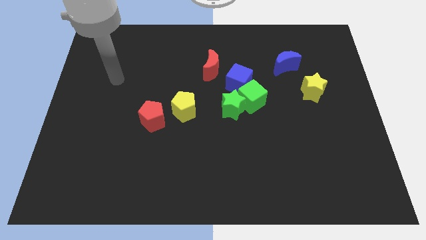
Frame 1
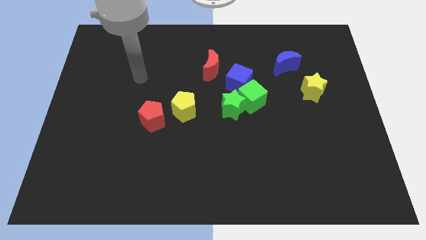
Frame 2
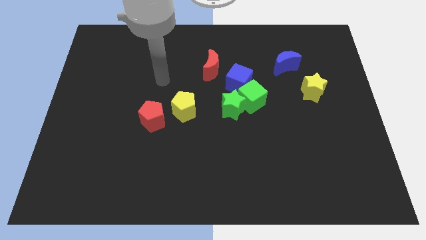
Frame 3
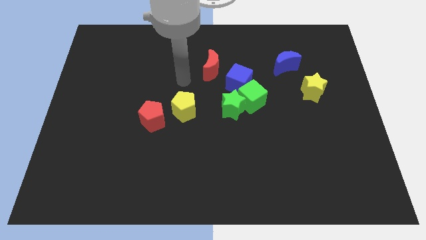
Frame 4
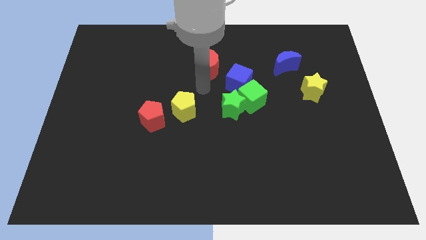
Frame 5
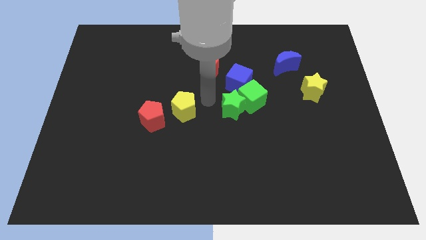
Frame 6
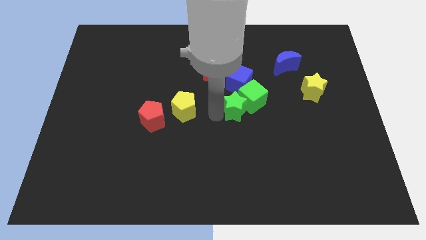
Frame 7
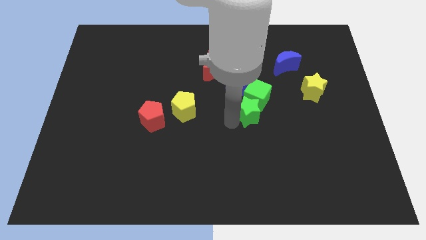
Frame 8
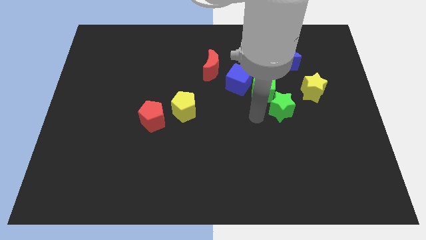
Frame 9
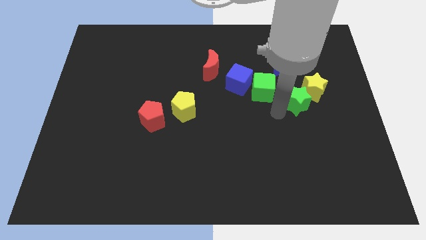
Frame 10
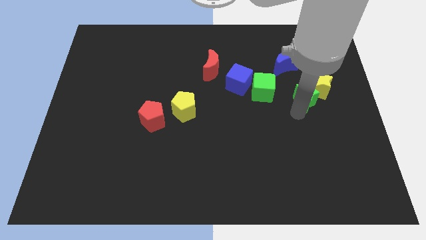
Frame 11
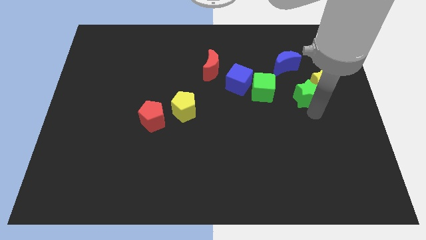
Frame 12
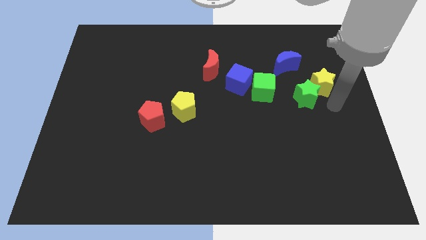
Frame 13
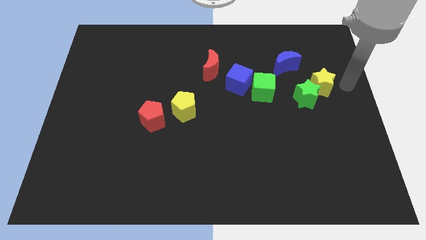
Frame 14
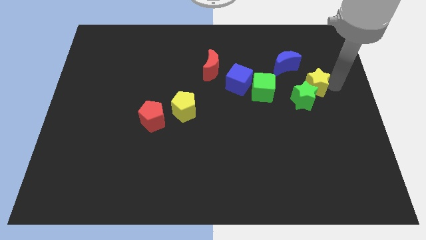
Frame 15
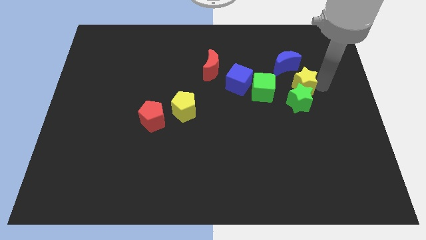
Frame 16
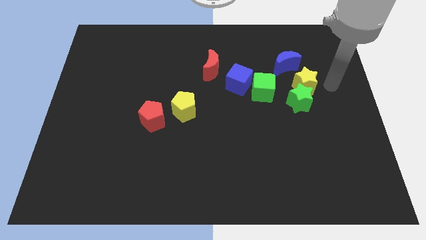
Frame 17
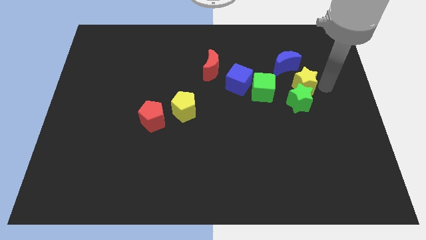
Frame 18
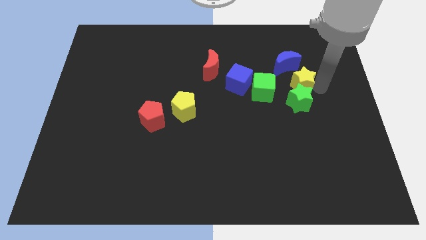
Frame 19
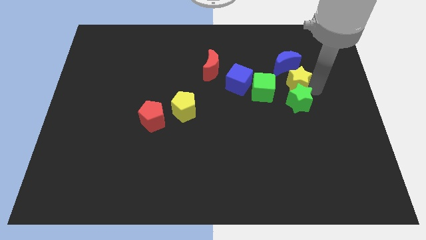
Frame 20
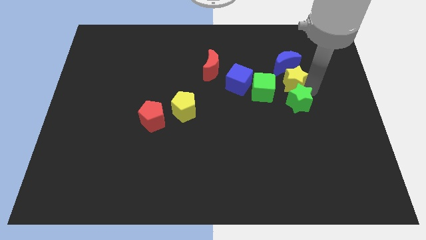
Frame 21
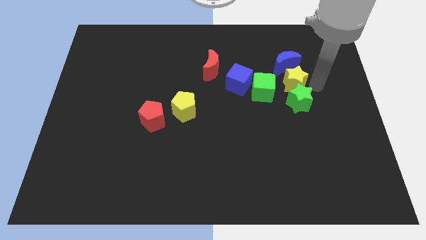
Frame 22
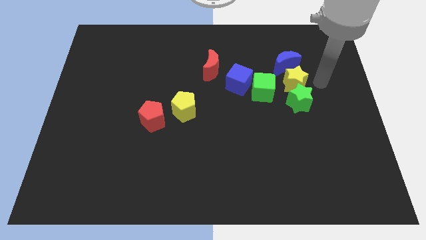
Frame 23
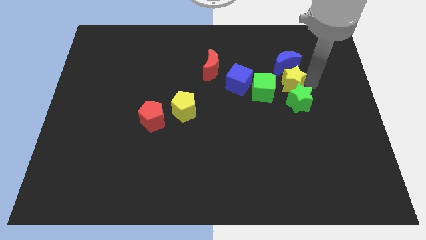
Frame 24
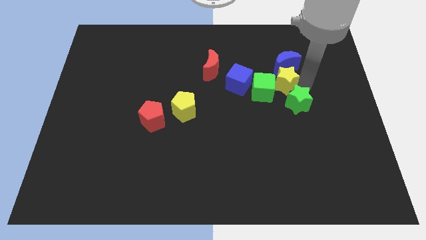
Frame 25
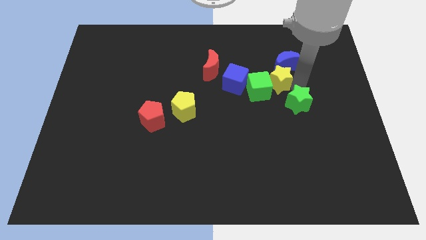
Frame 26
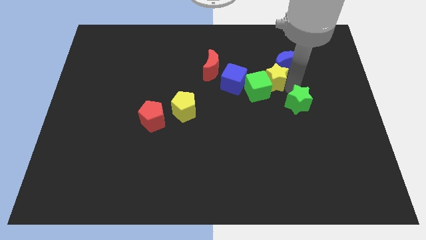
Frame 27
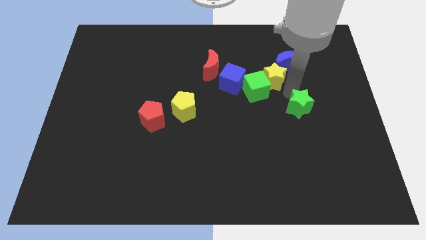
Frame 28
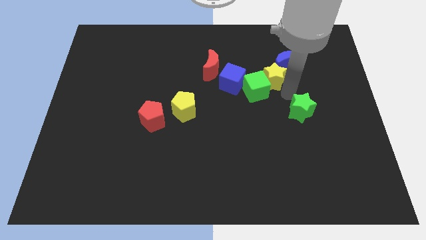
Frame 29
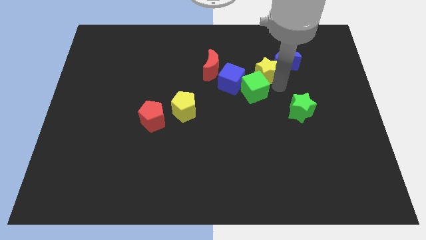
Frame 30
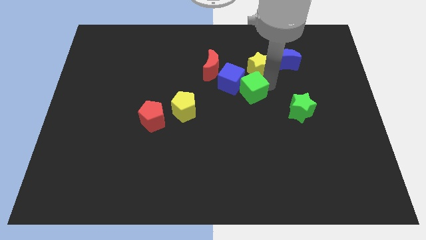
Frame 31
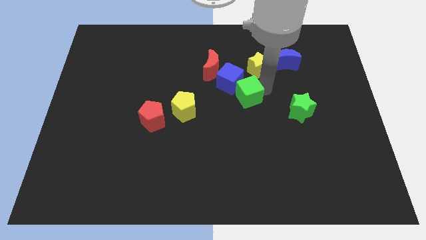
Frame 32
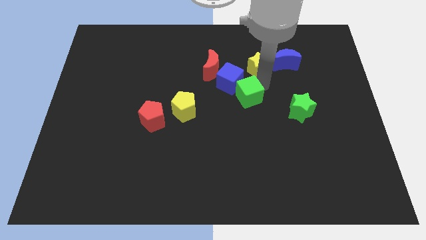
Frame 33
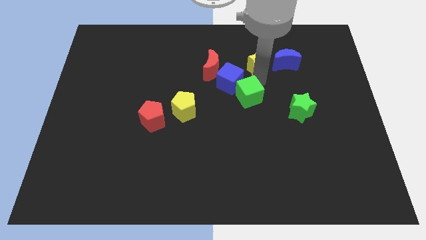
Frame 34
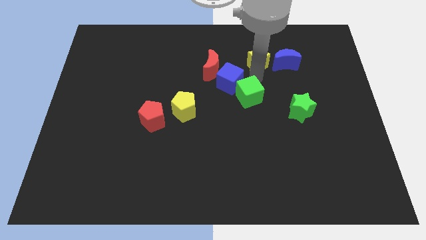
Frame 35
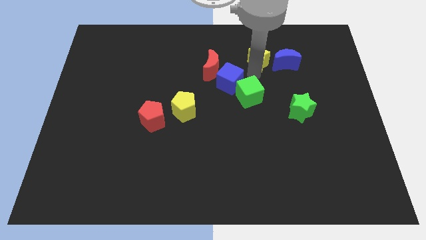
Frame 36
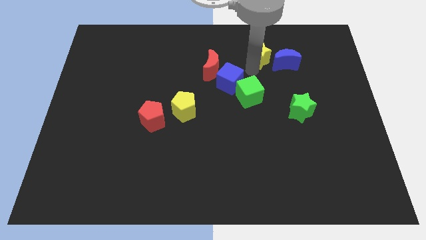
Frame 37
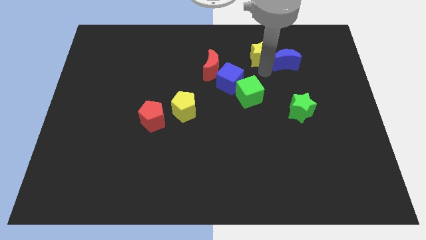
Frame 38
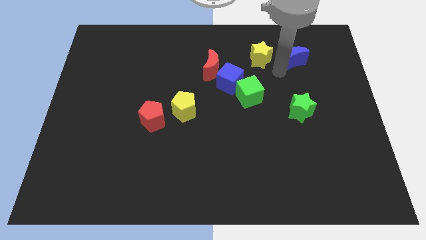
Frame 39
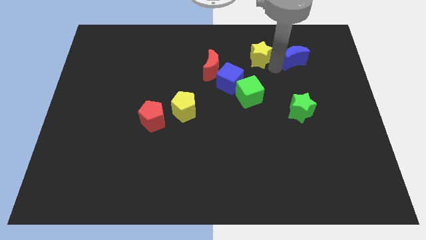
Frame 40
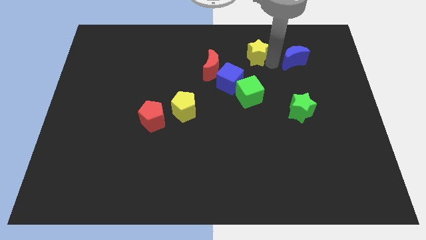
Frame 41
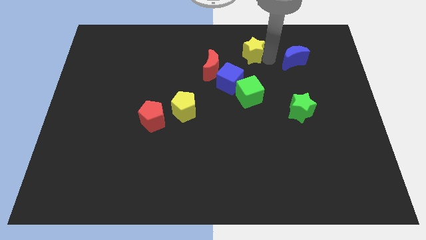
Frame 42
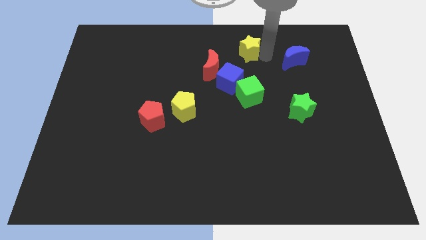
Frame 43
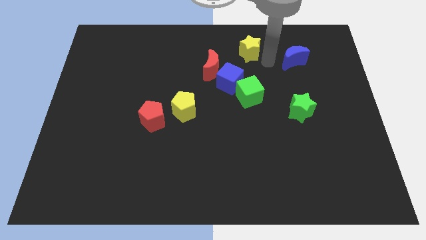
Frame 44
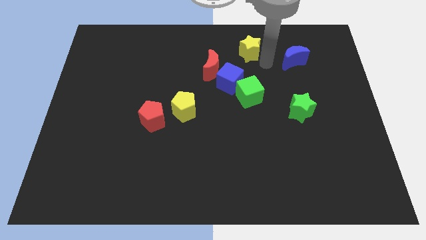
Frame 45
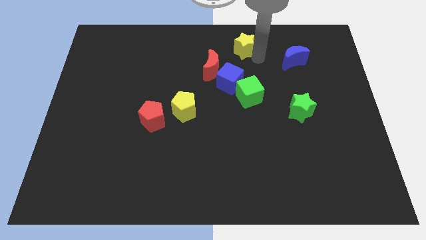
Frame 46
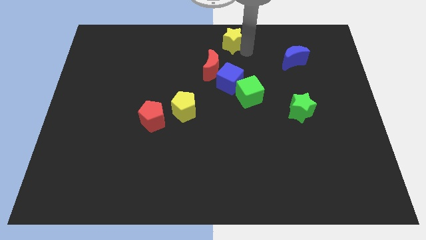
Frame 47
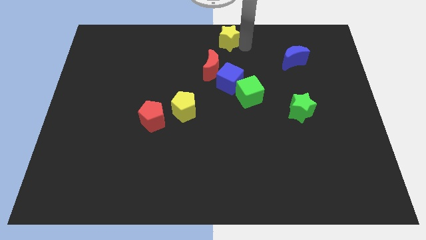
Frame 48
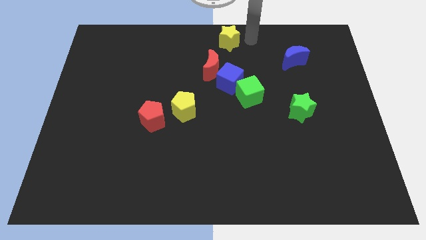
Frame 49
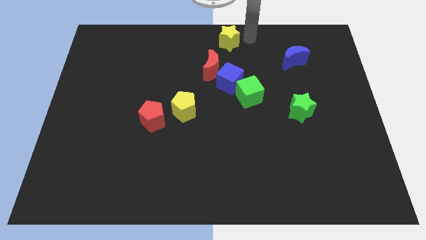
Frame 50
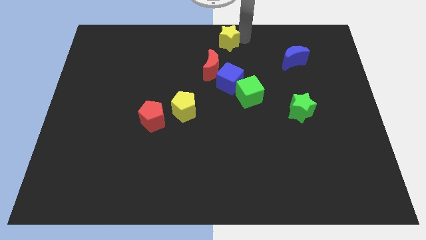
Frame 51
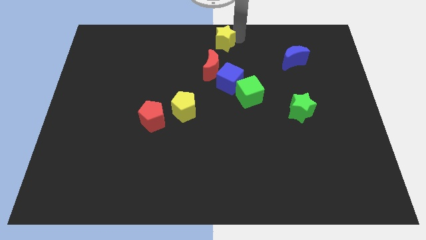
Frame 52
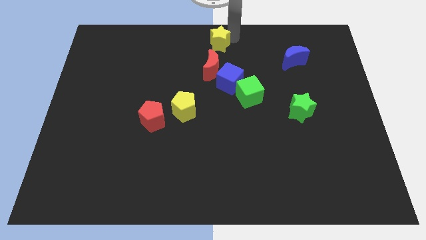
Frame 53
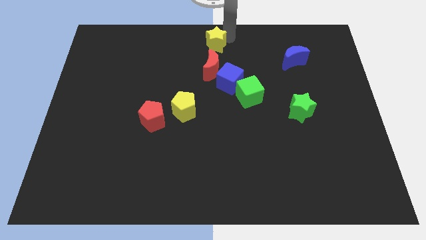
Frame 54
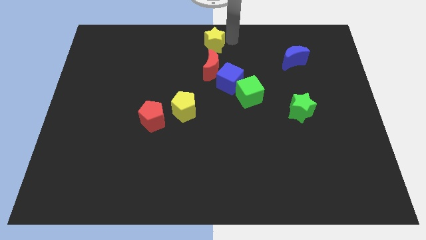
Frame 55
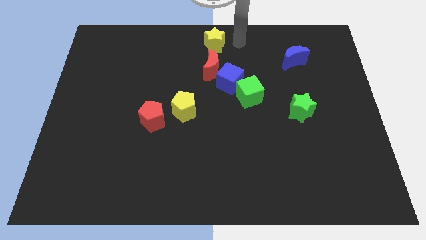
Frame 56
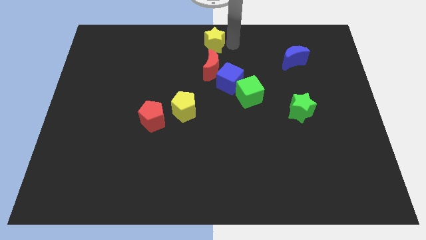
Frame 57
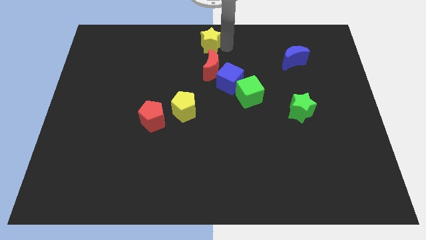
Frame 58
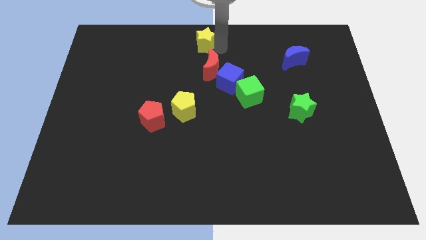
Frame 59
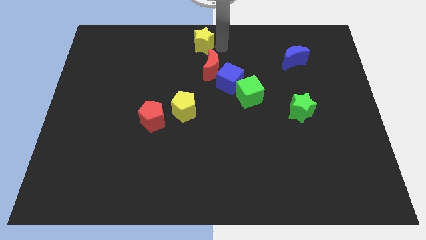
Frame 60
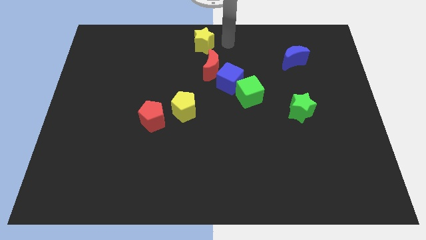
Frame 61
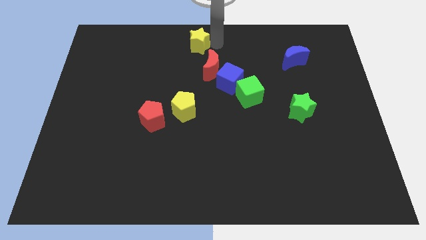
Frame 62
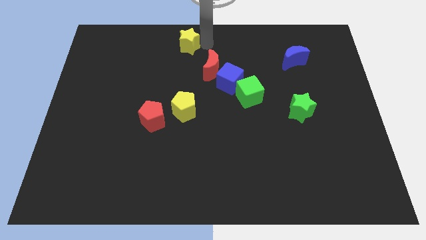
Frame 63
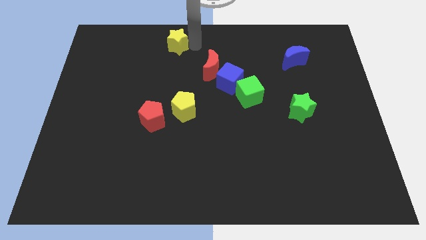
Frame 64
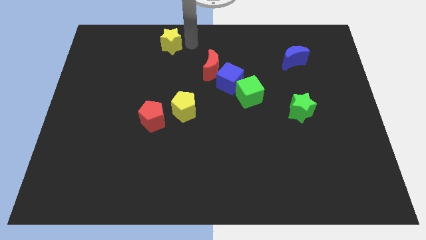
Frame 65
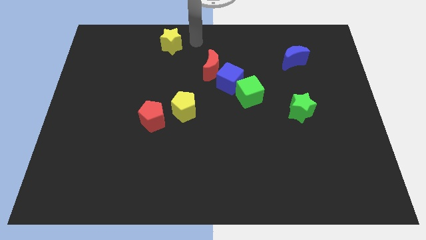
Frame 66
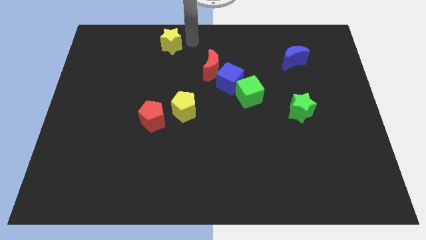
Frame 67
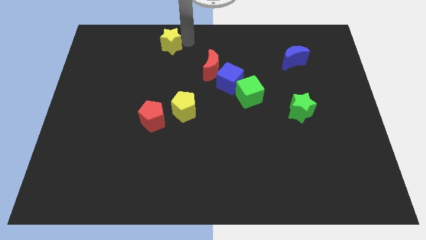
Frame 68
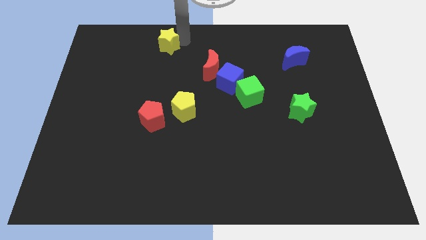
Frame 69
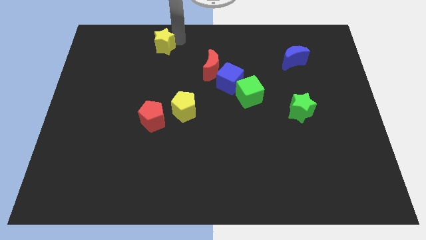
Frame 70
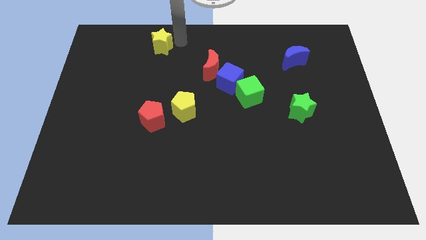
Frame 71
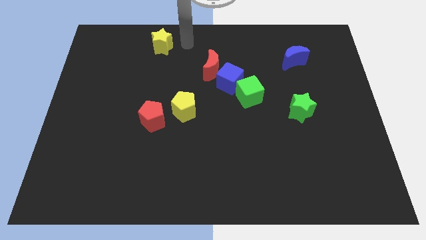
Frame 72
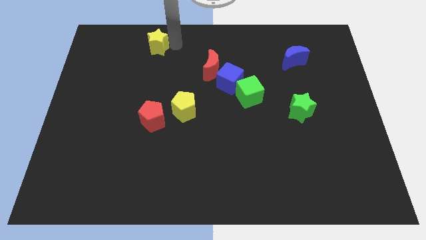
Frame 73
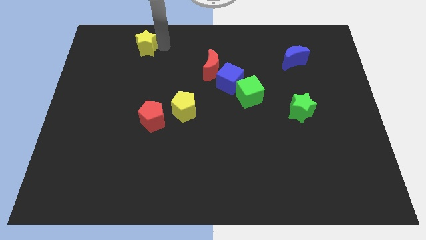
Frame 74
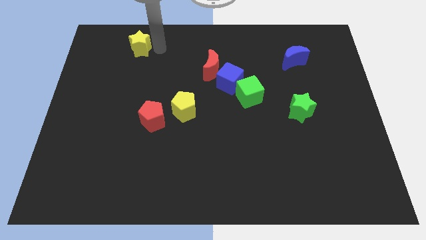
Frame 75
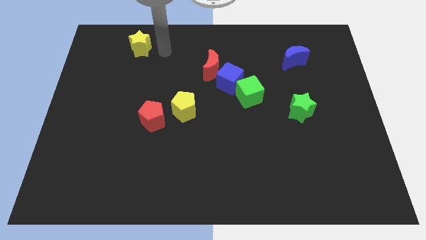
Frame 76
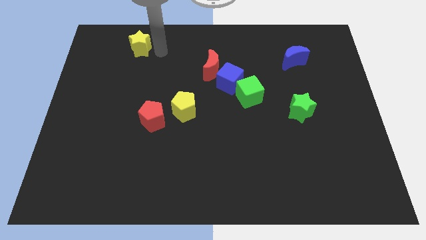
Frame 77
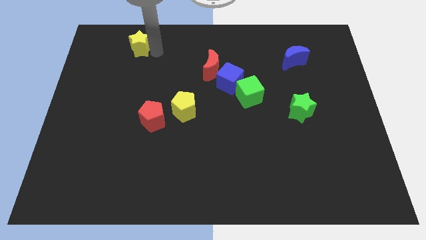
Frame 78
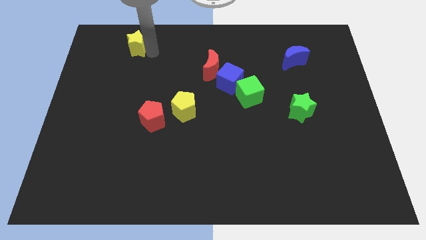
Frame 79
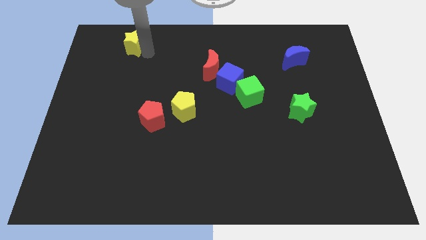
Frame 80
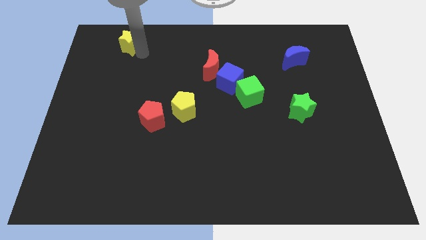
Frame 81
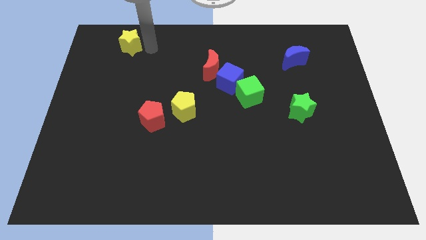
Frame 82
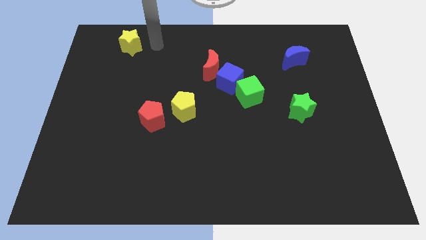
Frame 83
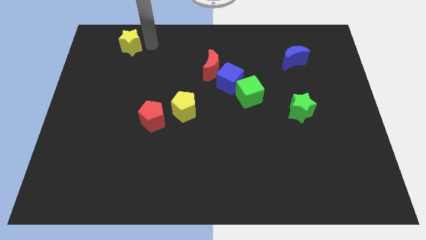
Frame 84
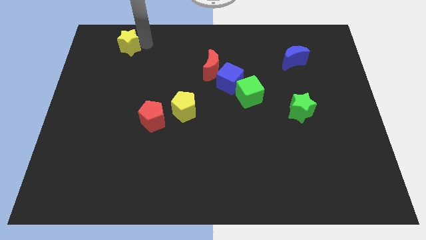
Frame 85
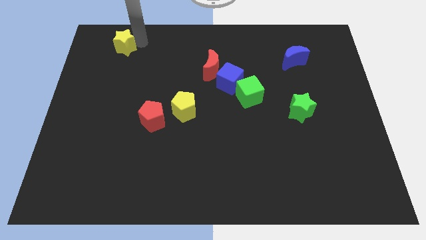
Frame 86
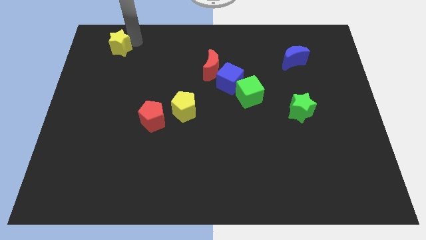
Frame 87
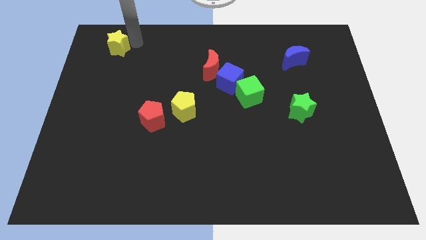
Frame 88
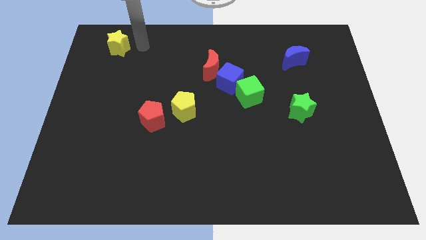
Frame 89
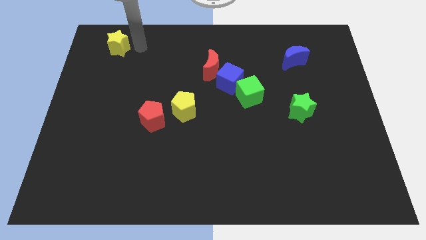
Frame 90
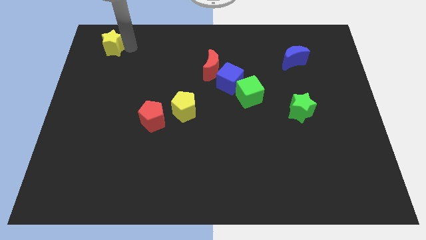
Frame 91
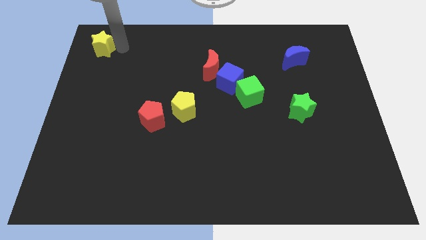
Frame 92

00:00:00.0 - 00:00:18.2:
put the yellow star to the upper left corner
